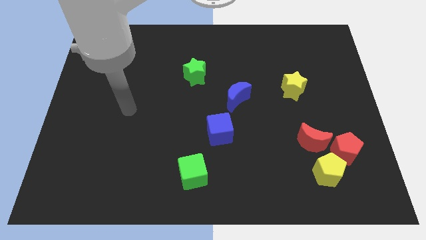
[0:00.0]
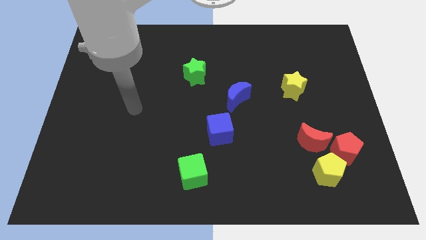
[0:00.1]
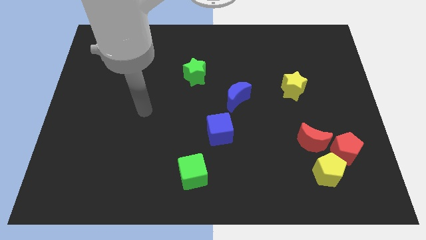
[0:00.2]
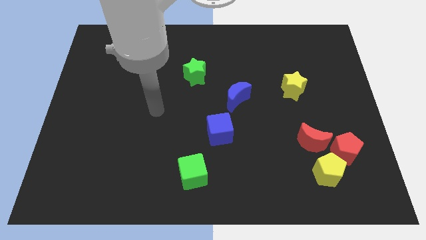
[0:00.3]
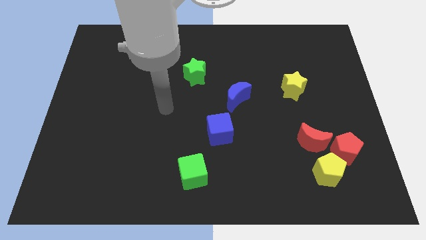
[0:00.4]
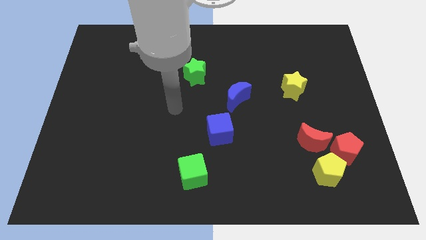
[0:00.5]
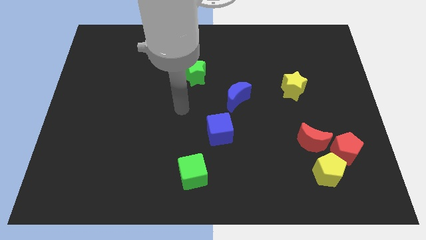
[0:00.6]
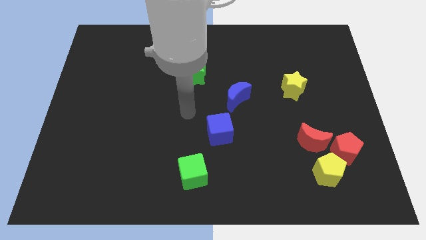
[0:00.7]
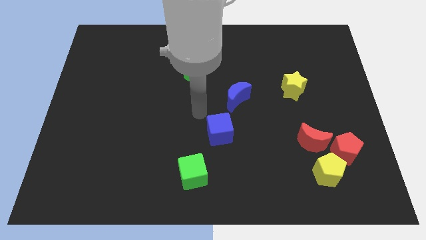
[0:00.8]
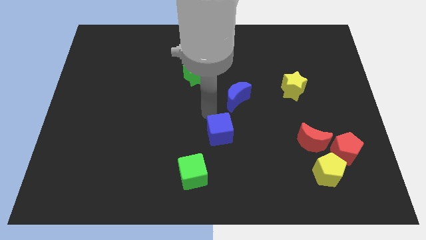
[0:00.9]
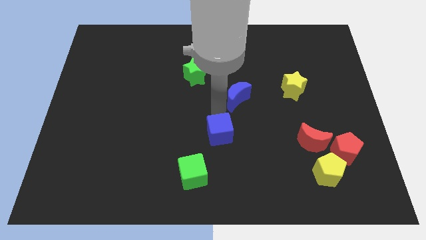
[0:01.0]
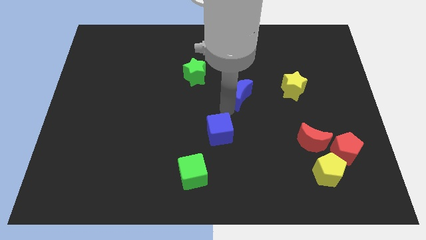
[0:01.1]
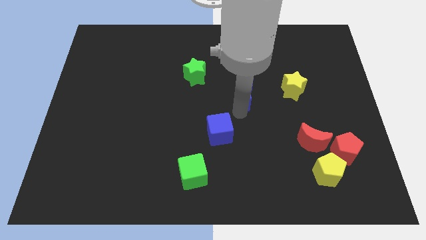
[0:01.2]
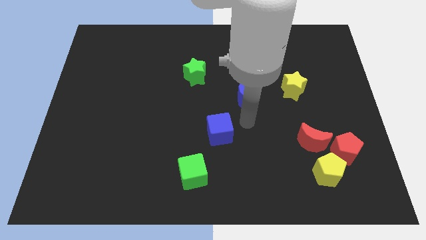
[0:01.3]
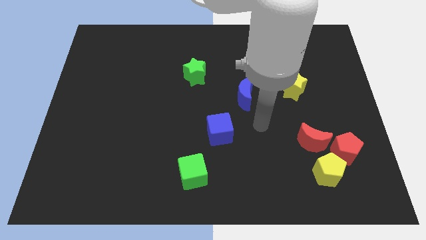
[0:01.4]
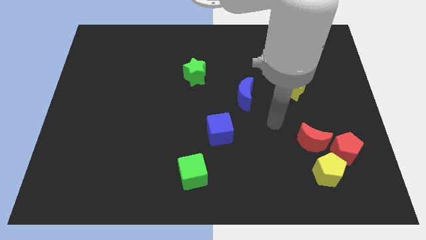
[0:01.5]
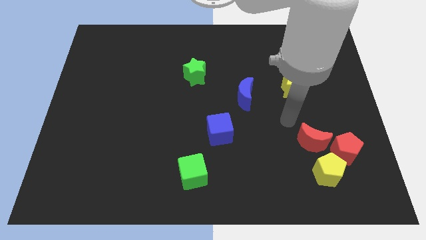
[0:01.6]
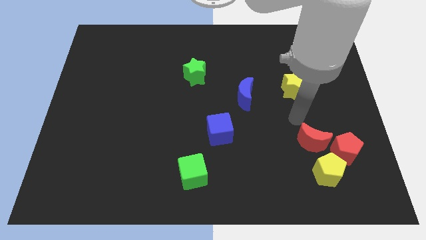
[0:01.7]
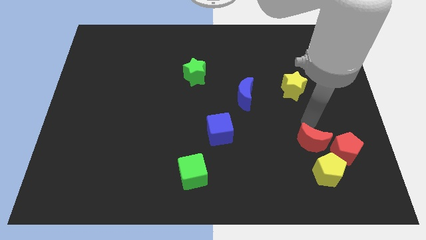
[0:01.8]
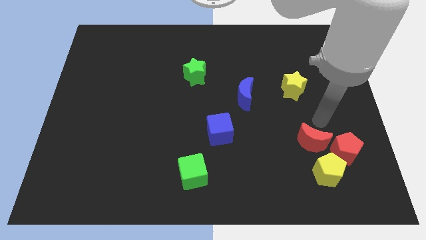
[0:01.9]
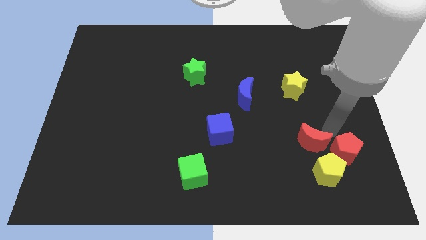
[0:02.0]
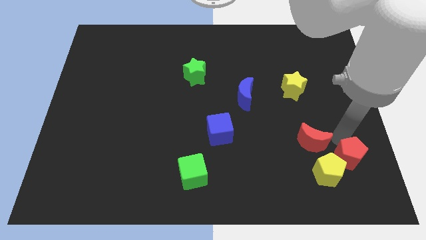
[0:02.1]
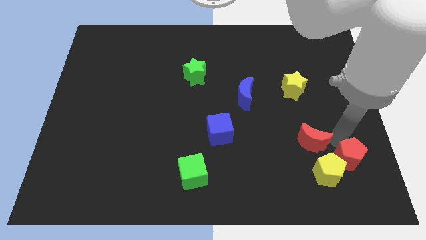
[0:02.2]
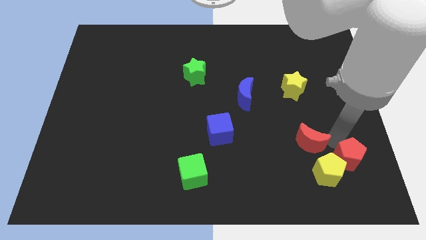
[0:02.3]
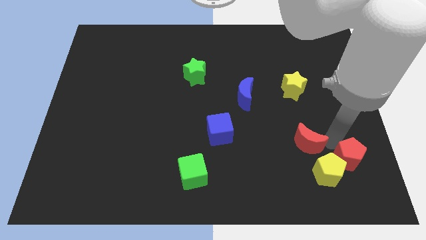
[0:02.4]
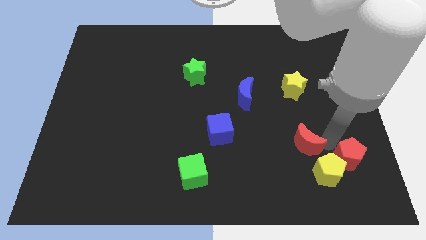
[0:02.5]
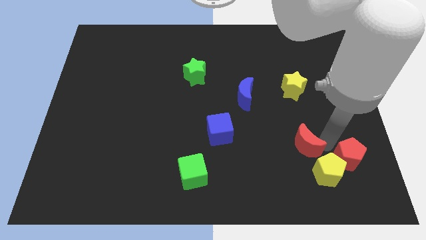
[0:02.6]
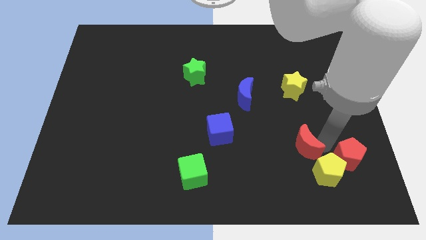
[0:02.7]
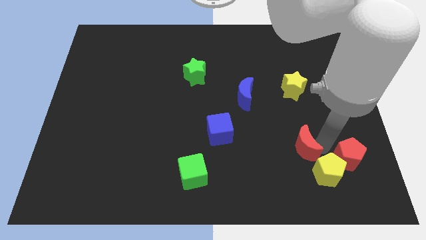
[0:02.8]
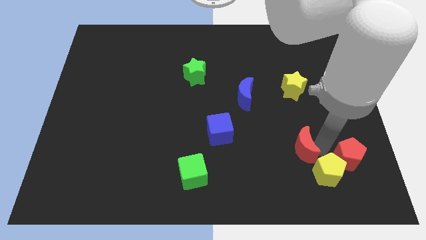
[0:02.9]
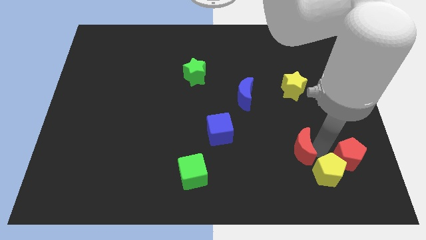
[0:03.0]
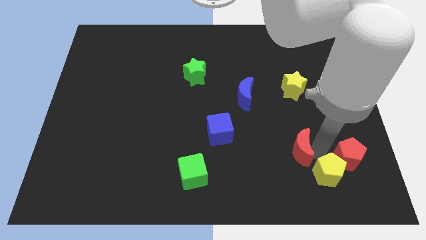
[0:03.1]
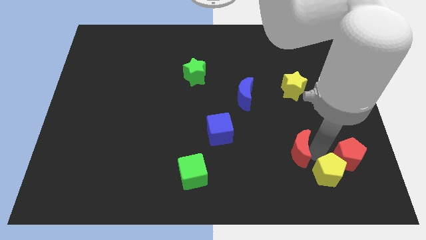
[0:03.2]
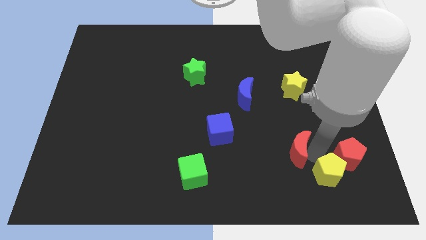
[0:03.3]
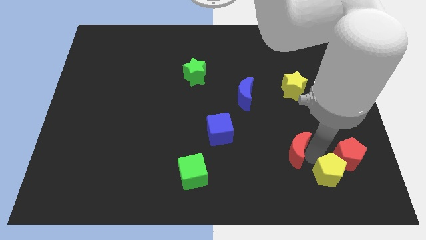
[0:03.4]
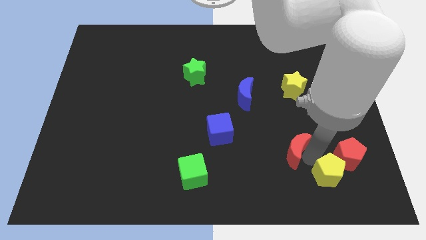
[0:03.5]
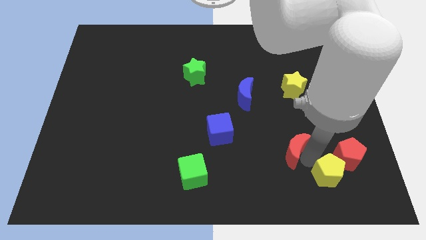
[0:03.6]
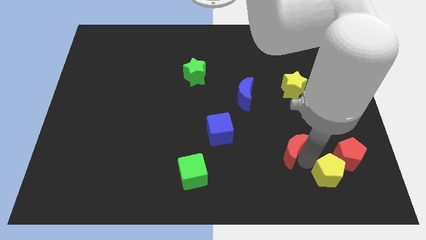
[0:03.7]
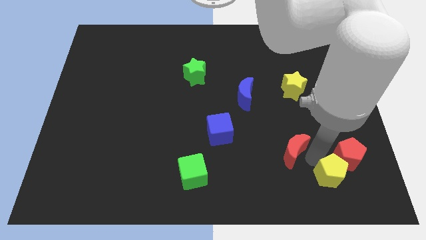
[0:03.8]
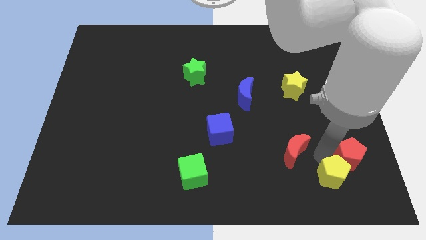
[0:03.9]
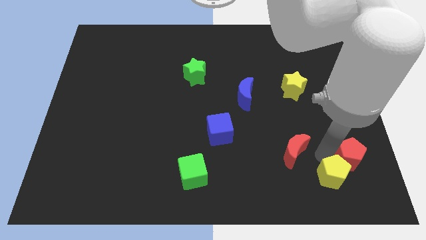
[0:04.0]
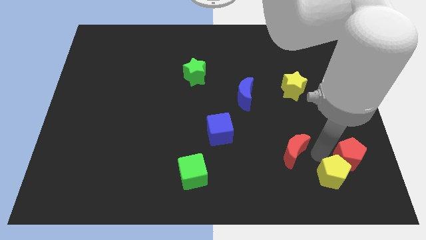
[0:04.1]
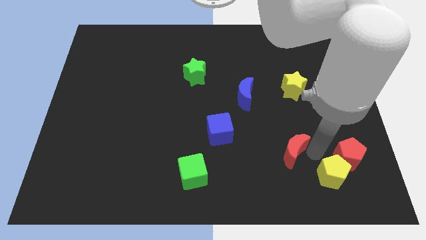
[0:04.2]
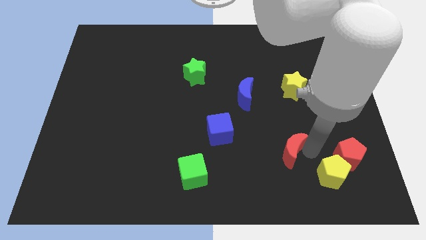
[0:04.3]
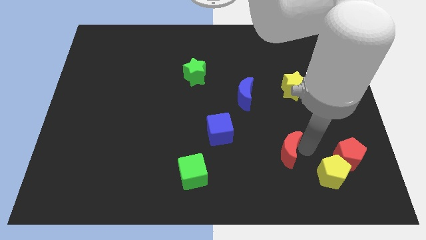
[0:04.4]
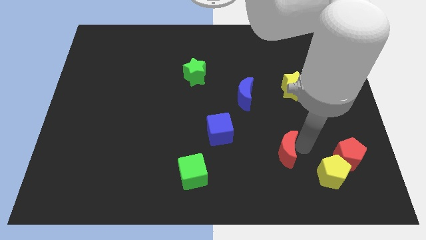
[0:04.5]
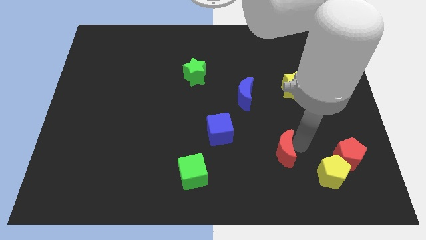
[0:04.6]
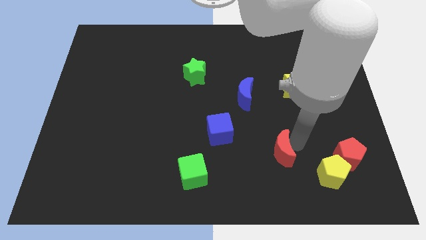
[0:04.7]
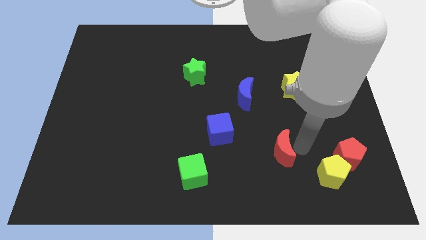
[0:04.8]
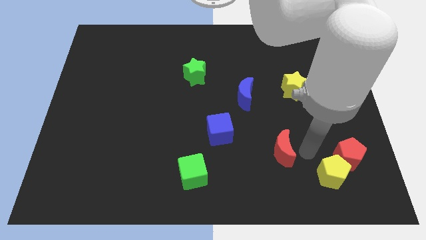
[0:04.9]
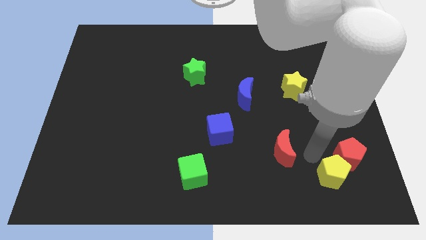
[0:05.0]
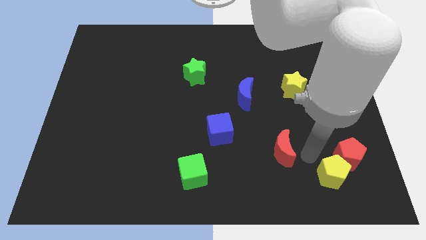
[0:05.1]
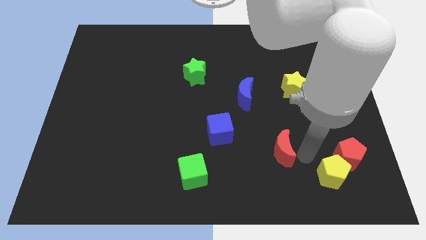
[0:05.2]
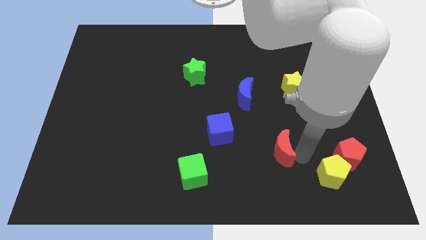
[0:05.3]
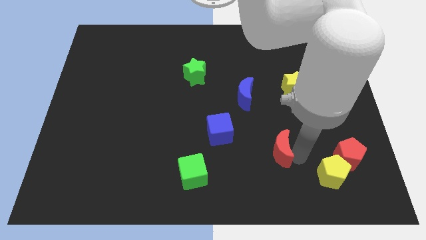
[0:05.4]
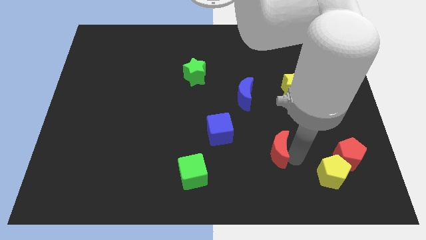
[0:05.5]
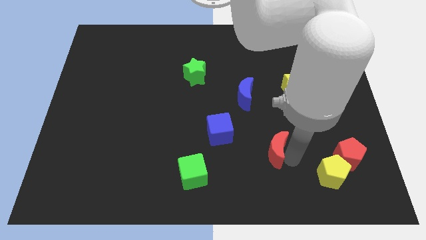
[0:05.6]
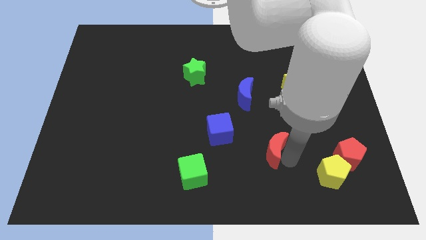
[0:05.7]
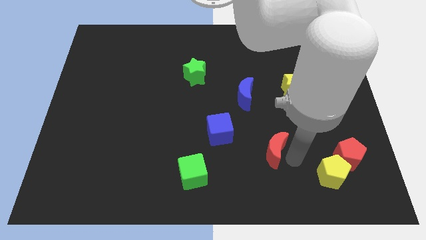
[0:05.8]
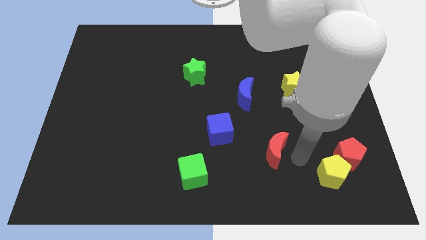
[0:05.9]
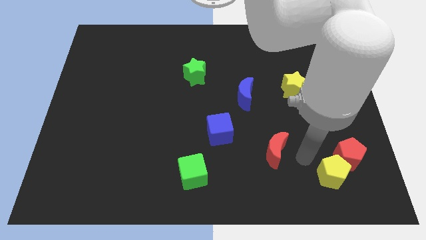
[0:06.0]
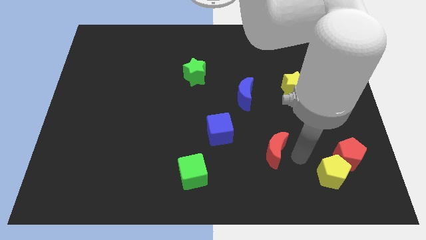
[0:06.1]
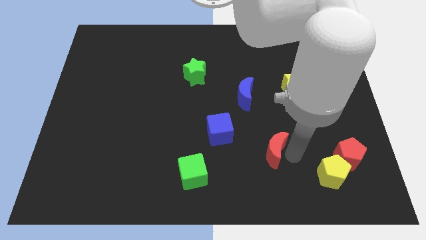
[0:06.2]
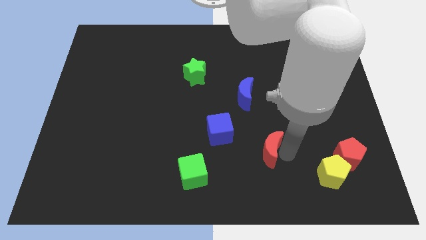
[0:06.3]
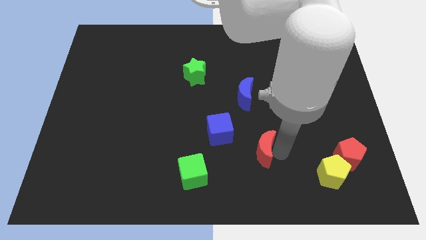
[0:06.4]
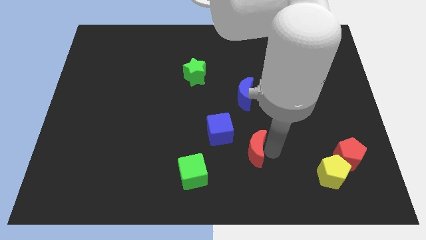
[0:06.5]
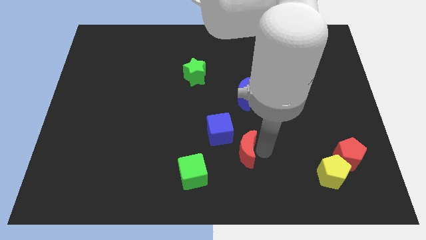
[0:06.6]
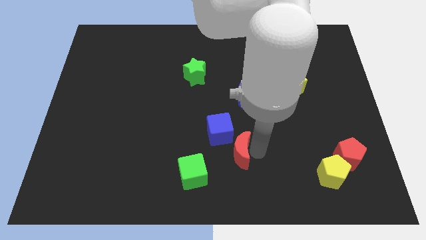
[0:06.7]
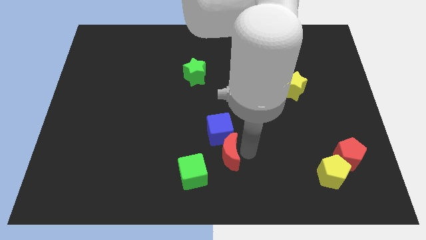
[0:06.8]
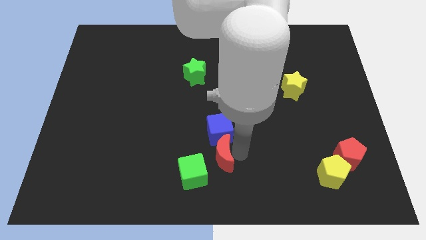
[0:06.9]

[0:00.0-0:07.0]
put the red moon diagonally down and to the left of the blue cube

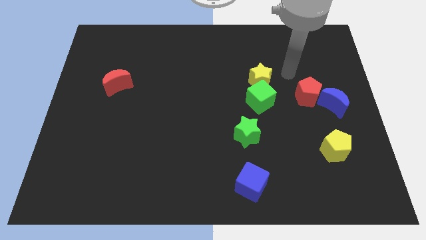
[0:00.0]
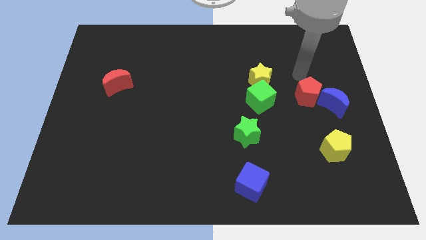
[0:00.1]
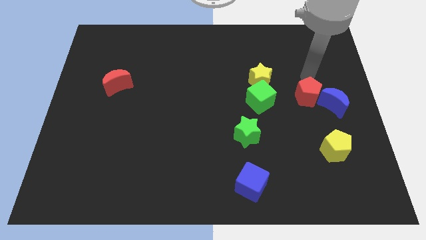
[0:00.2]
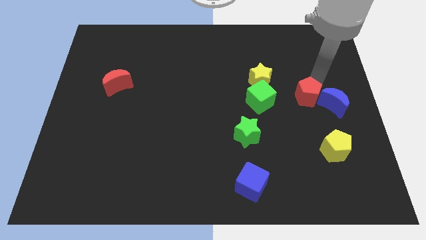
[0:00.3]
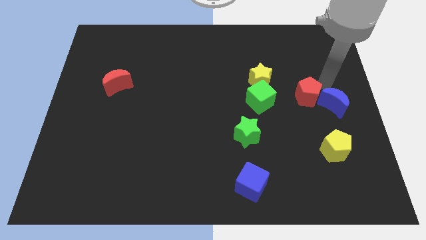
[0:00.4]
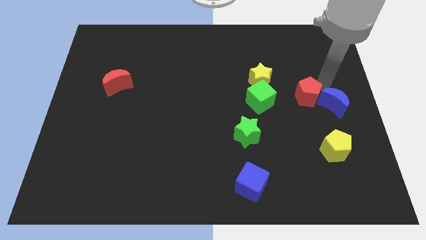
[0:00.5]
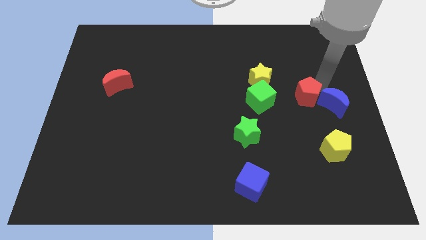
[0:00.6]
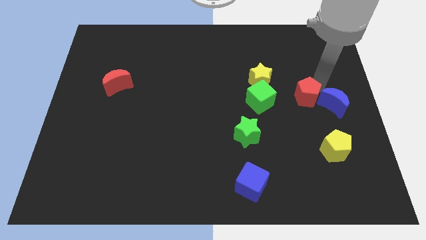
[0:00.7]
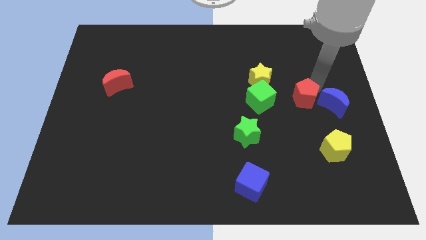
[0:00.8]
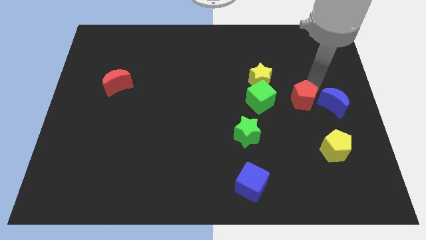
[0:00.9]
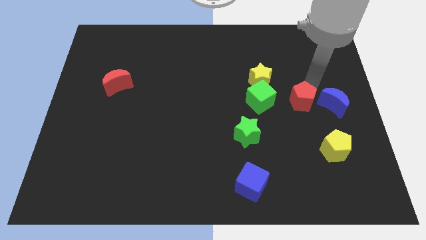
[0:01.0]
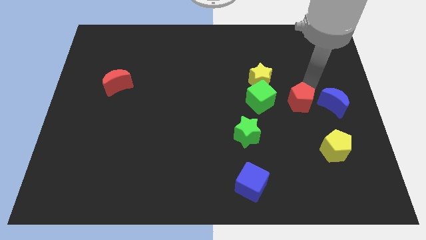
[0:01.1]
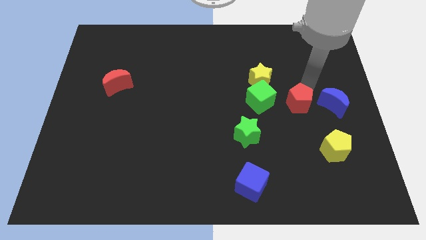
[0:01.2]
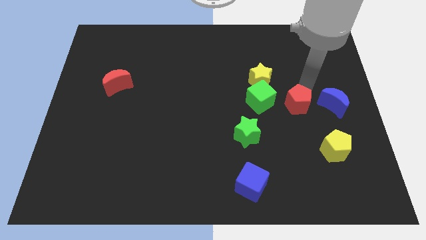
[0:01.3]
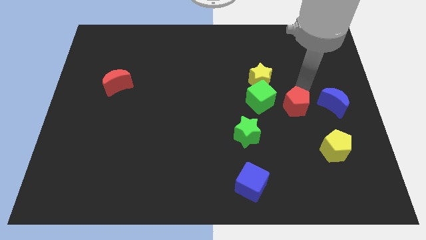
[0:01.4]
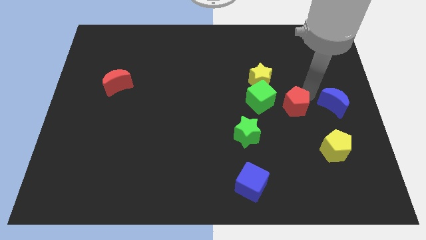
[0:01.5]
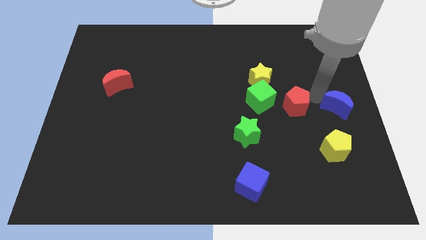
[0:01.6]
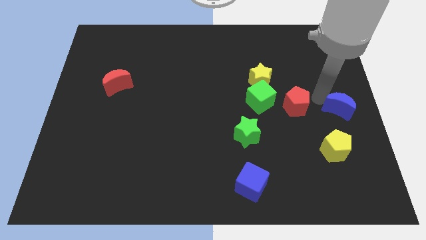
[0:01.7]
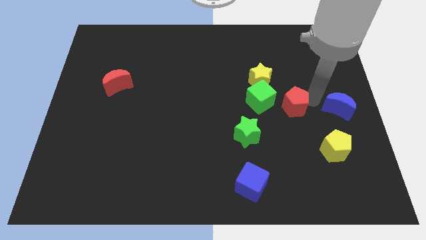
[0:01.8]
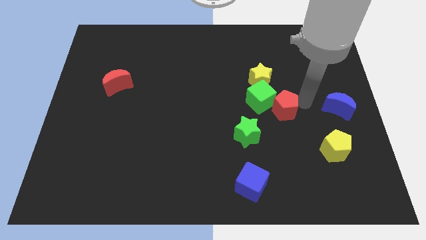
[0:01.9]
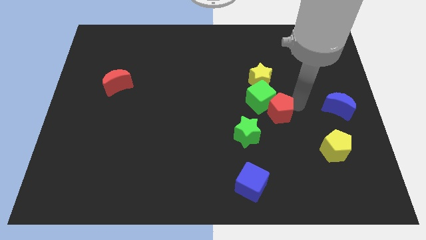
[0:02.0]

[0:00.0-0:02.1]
move the red pentagon below the yellow star
